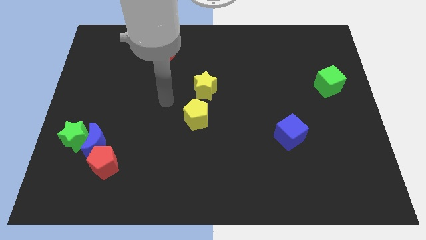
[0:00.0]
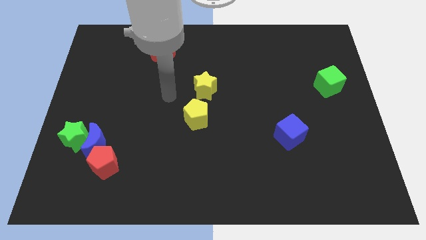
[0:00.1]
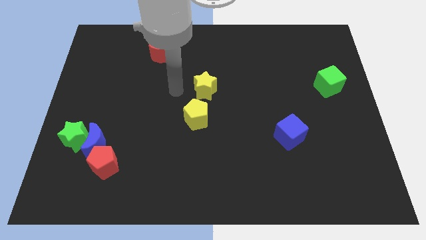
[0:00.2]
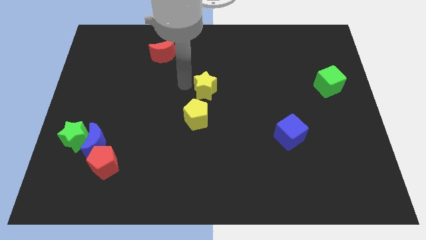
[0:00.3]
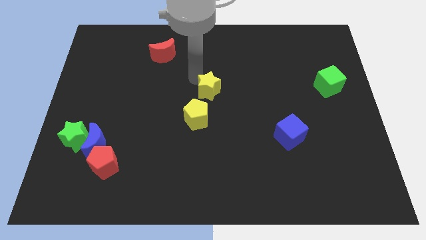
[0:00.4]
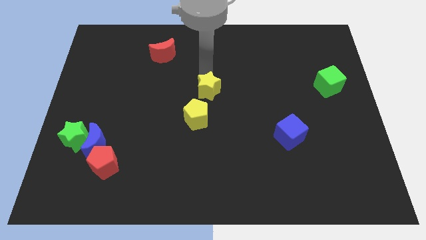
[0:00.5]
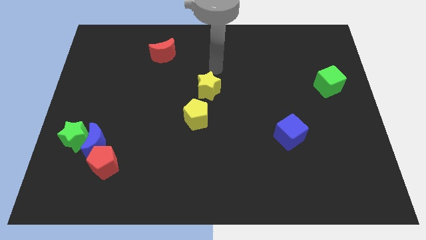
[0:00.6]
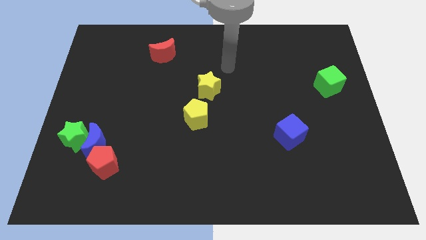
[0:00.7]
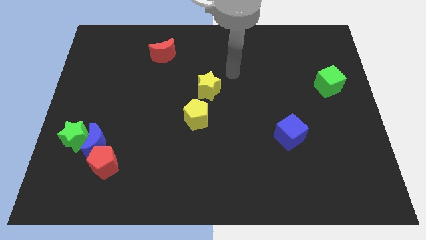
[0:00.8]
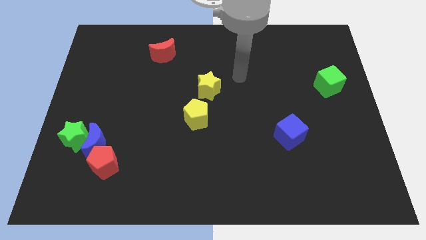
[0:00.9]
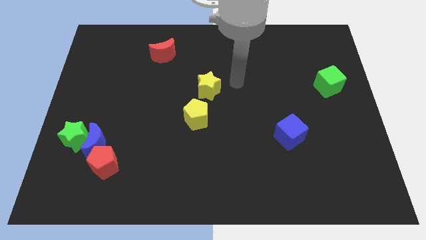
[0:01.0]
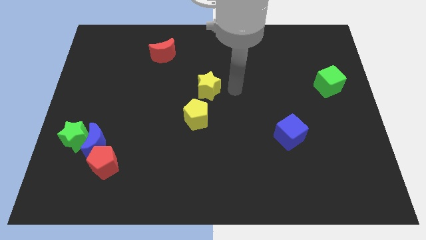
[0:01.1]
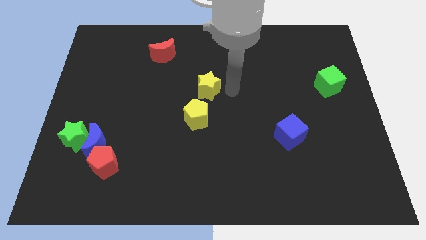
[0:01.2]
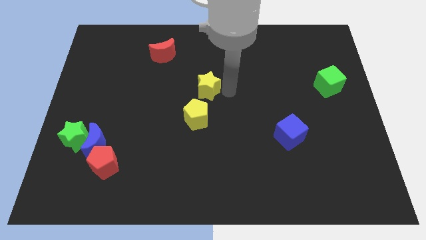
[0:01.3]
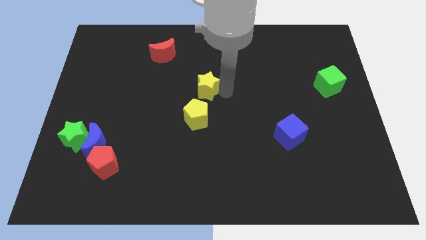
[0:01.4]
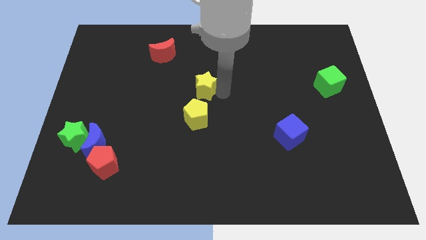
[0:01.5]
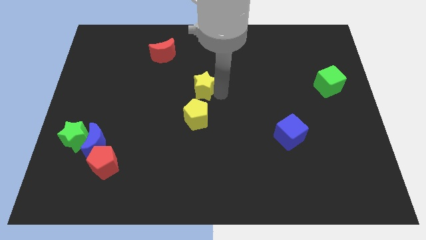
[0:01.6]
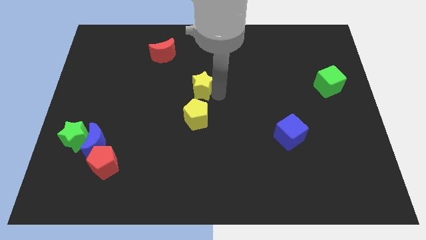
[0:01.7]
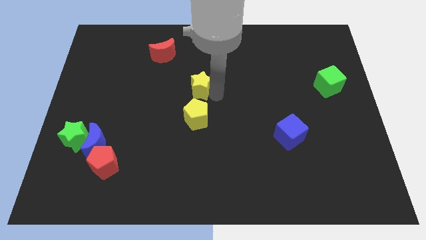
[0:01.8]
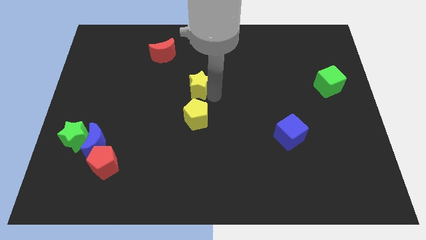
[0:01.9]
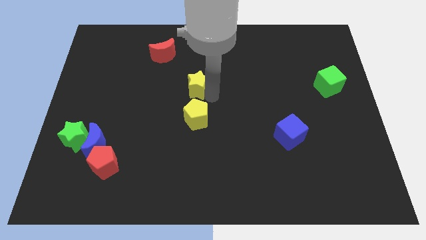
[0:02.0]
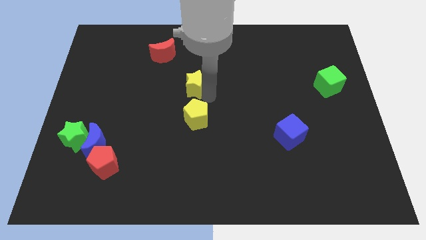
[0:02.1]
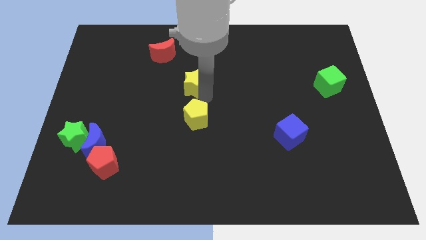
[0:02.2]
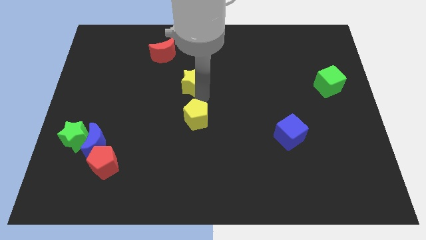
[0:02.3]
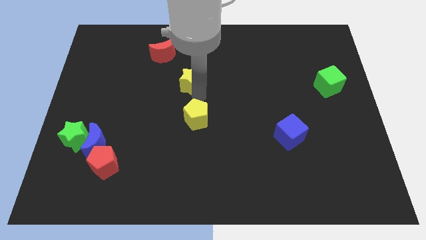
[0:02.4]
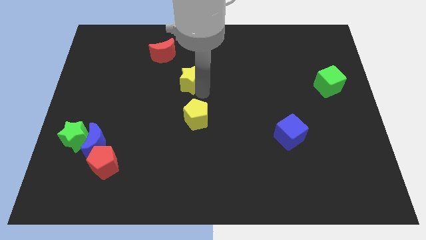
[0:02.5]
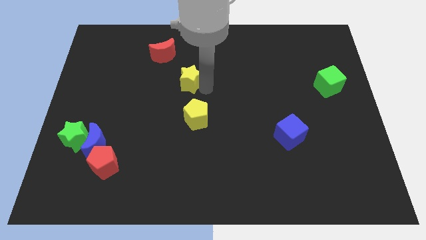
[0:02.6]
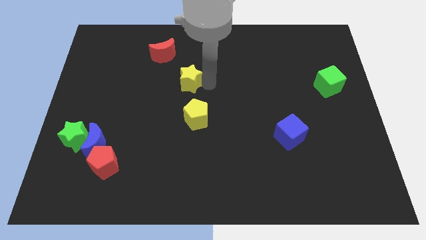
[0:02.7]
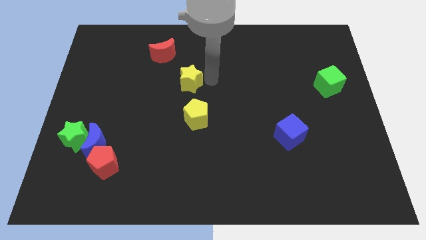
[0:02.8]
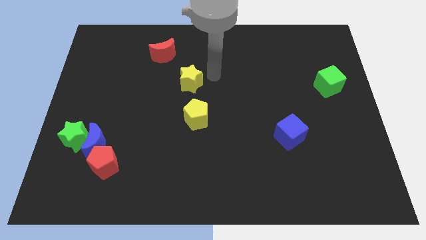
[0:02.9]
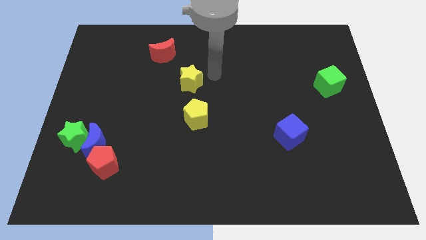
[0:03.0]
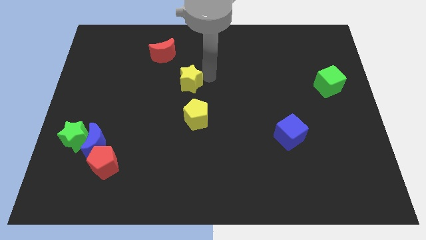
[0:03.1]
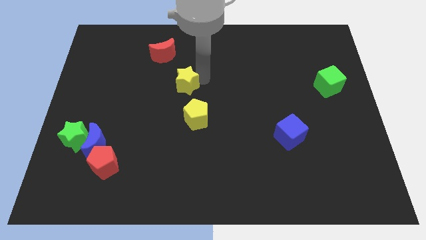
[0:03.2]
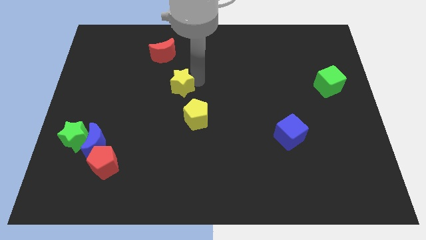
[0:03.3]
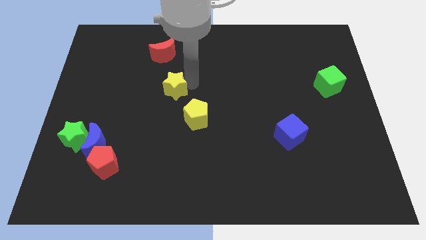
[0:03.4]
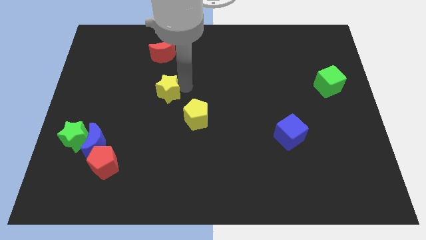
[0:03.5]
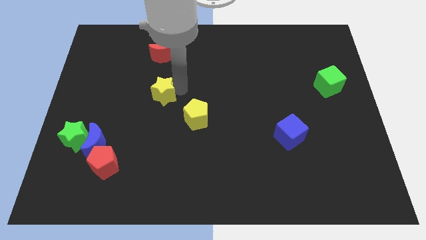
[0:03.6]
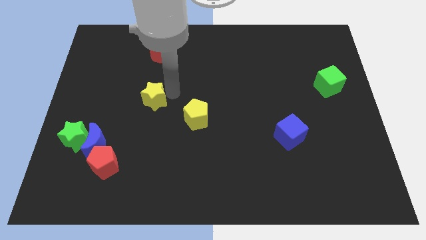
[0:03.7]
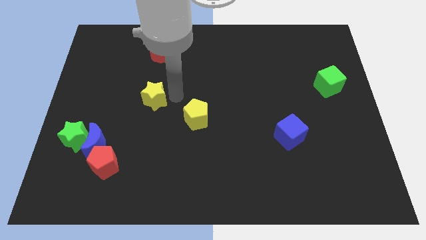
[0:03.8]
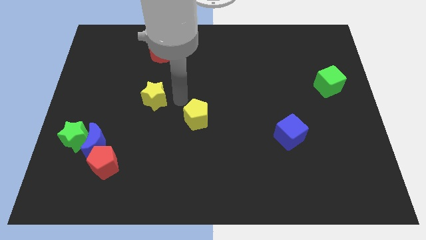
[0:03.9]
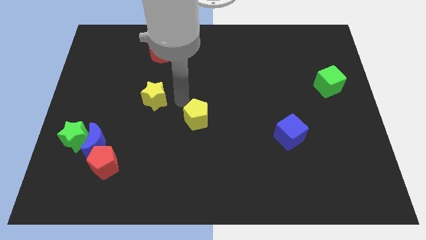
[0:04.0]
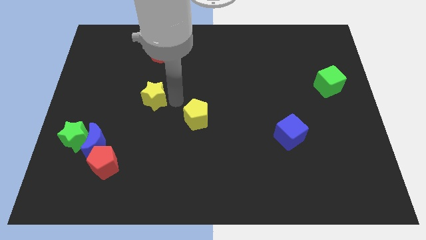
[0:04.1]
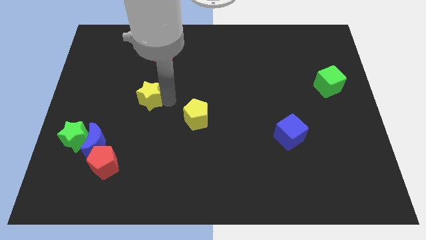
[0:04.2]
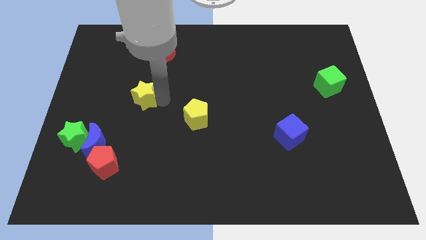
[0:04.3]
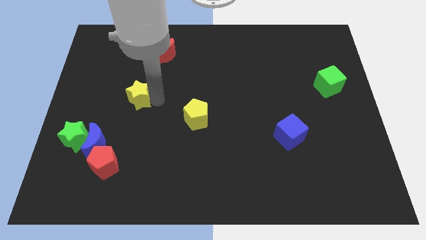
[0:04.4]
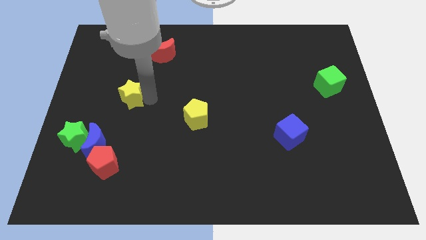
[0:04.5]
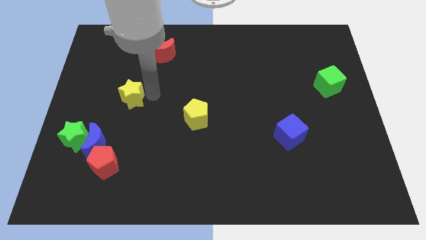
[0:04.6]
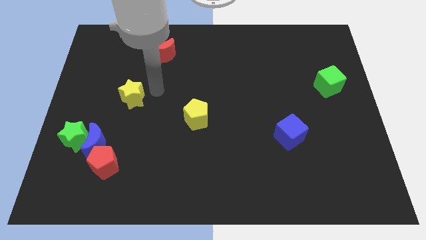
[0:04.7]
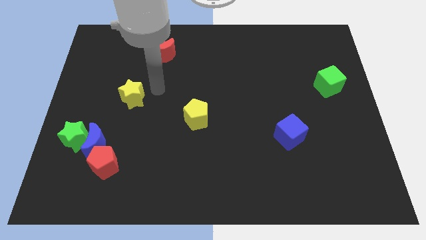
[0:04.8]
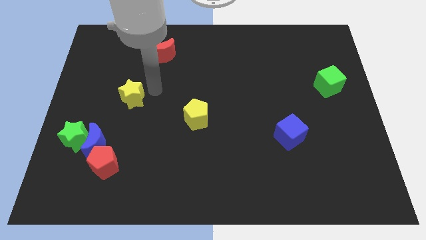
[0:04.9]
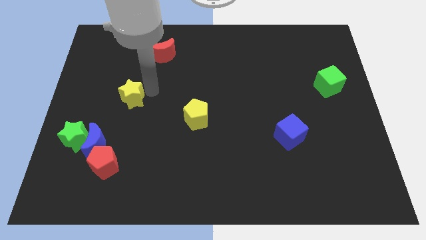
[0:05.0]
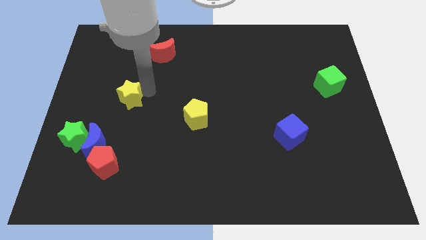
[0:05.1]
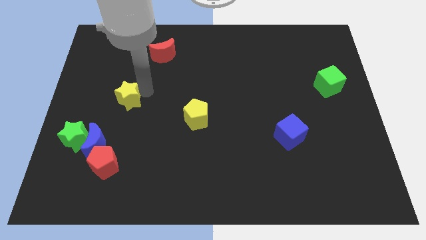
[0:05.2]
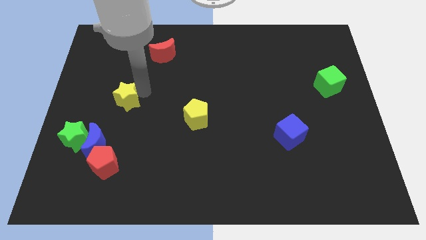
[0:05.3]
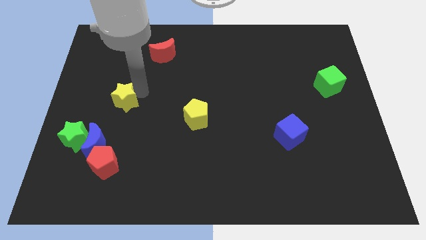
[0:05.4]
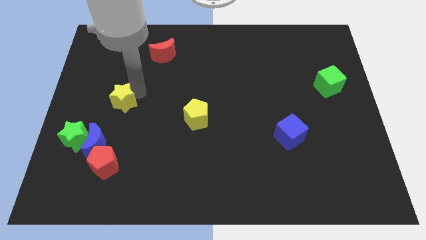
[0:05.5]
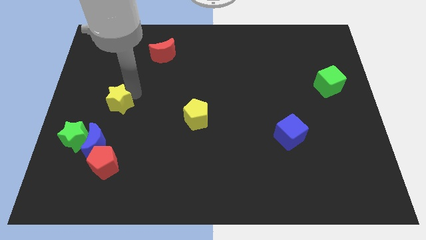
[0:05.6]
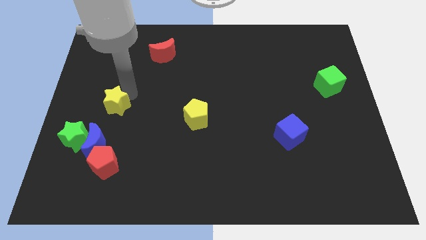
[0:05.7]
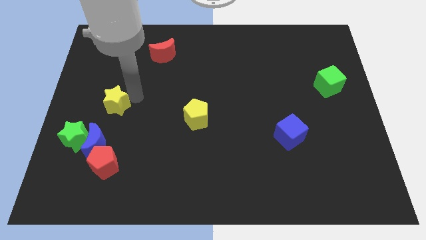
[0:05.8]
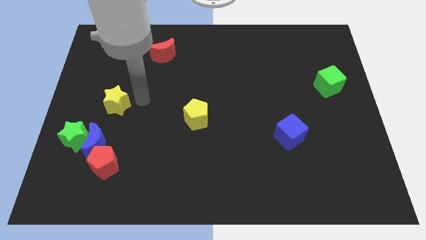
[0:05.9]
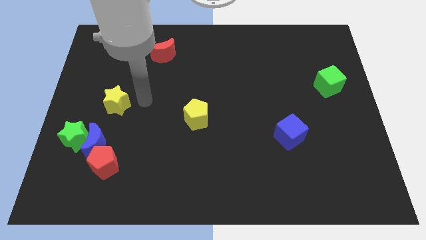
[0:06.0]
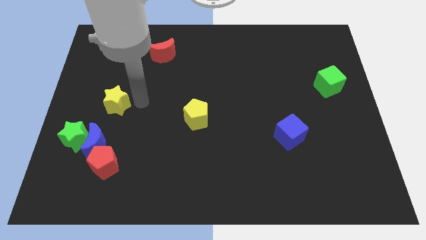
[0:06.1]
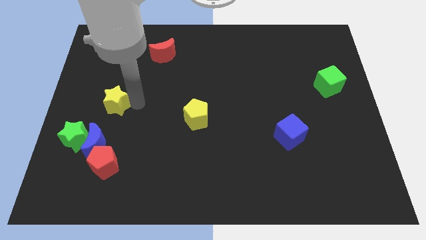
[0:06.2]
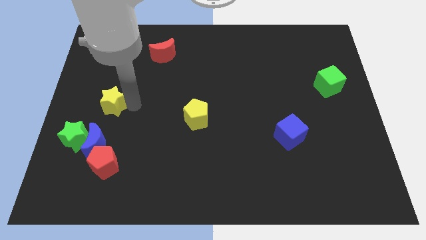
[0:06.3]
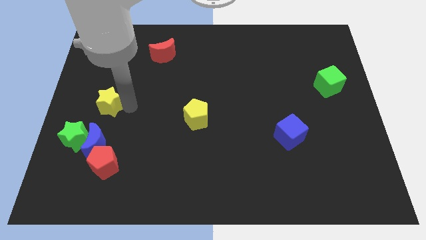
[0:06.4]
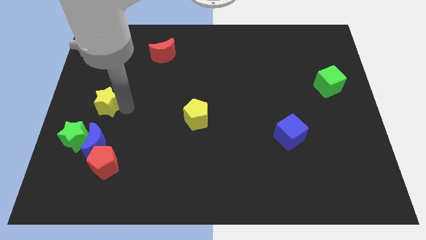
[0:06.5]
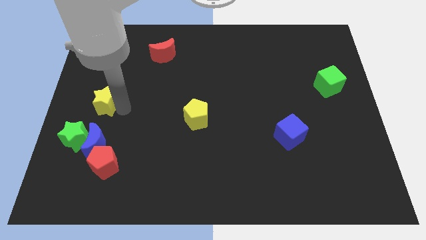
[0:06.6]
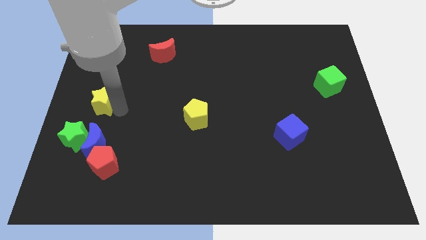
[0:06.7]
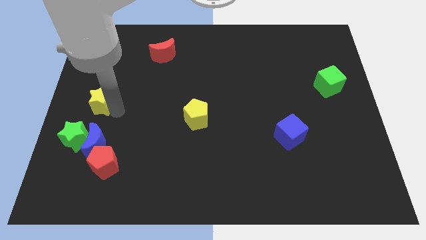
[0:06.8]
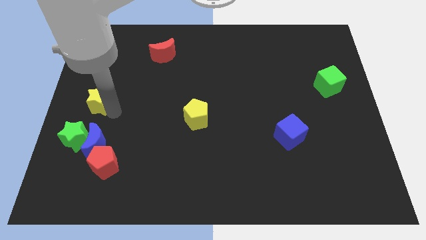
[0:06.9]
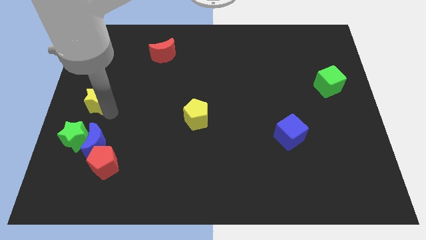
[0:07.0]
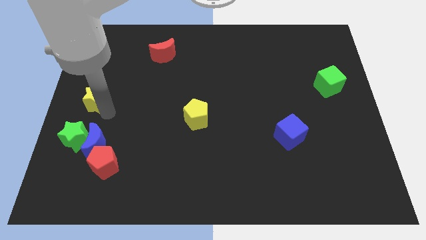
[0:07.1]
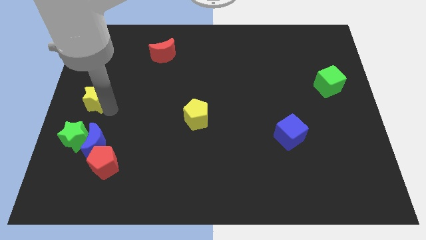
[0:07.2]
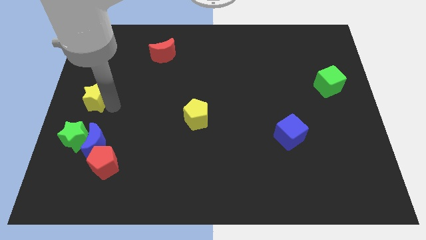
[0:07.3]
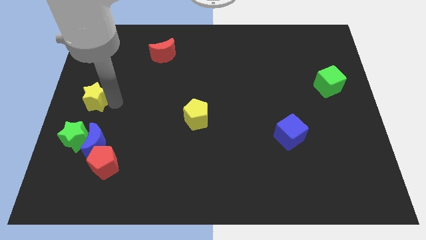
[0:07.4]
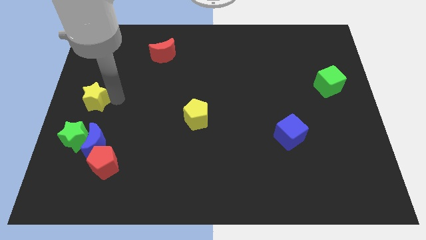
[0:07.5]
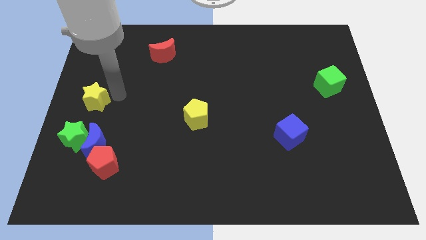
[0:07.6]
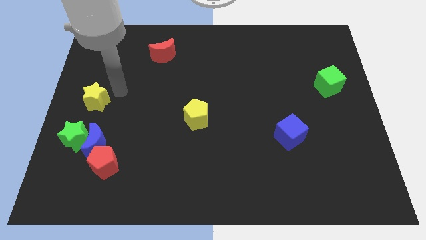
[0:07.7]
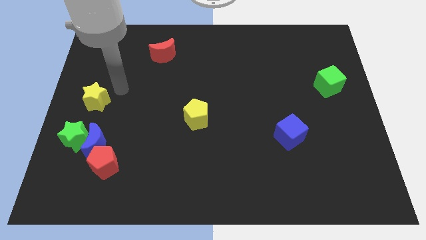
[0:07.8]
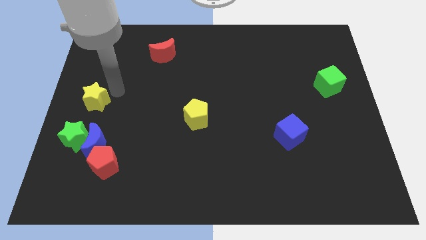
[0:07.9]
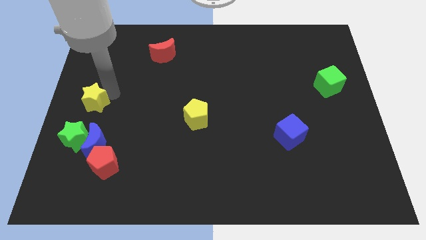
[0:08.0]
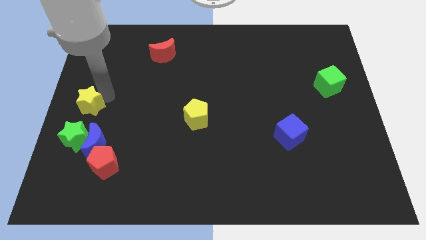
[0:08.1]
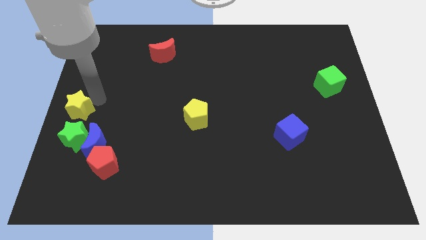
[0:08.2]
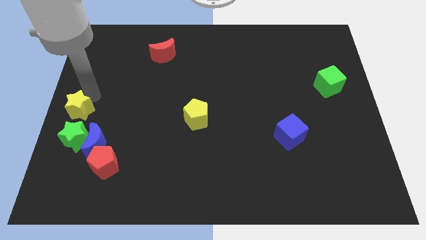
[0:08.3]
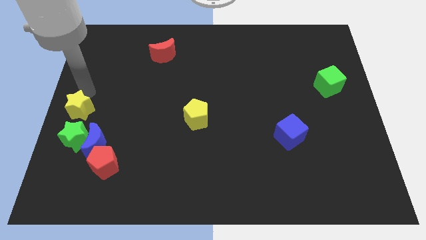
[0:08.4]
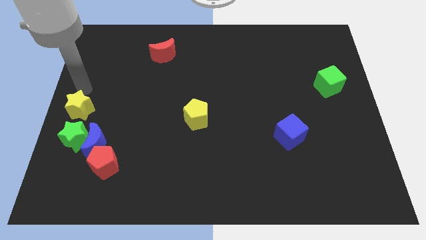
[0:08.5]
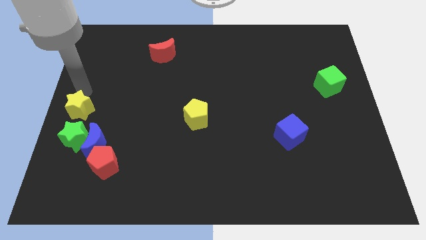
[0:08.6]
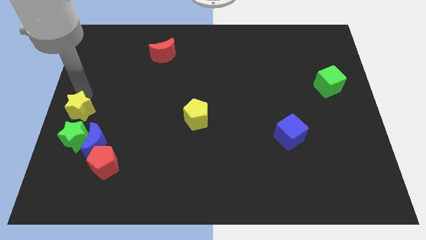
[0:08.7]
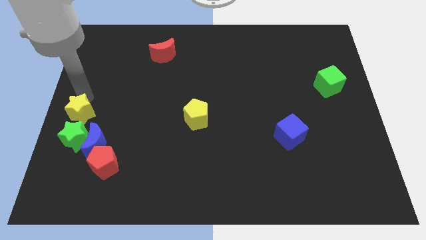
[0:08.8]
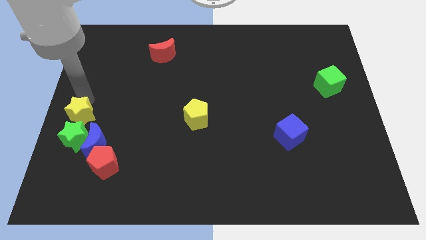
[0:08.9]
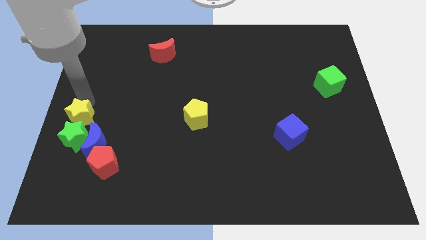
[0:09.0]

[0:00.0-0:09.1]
move the yellow star towards the green star
